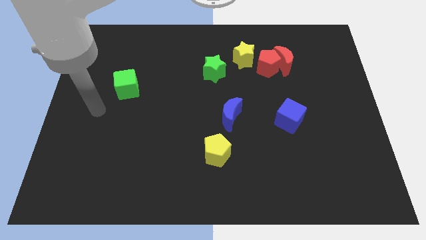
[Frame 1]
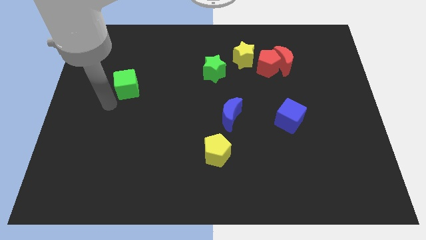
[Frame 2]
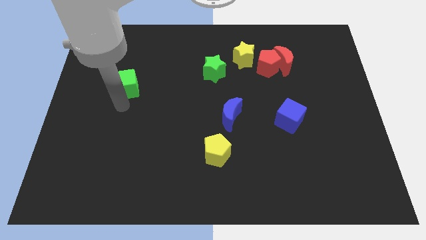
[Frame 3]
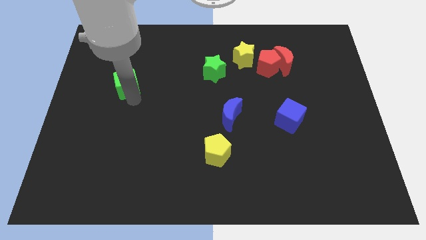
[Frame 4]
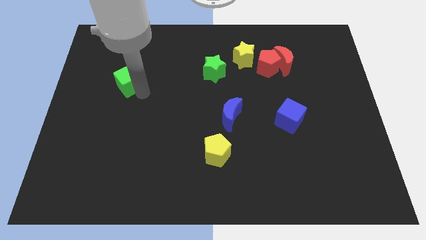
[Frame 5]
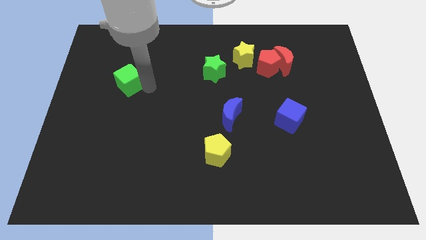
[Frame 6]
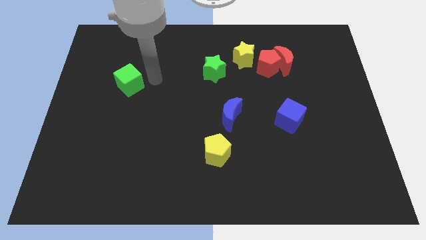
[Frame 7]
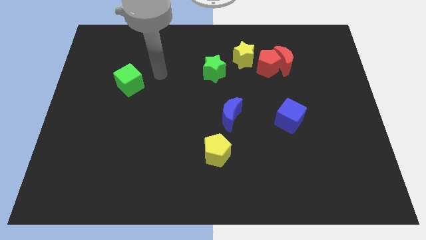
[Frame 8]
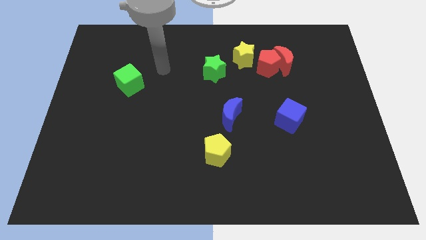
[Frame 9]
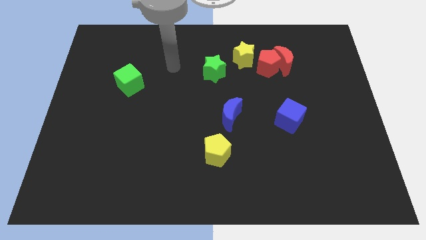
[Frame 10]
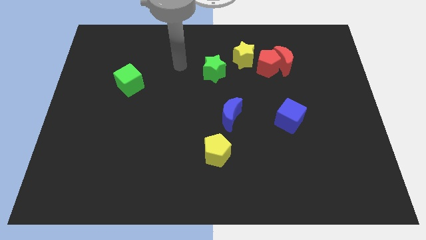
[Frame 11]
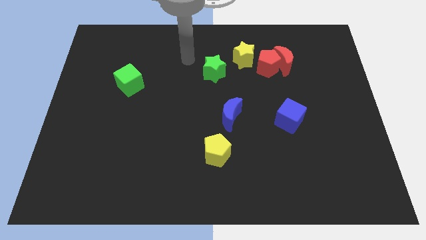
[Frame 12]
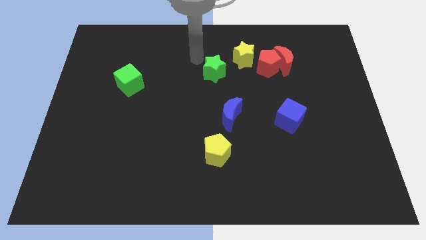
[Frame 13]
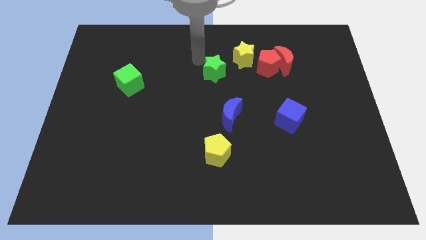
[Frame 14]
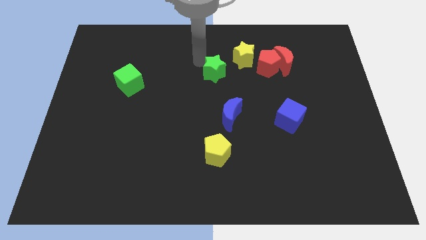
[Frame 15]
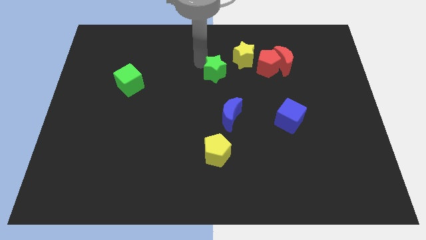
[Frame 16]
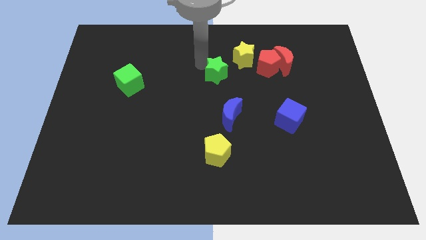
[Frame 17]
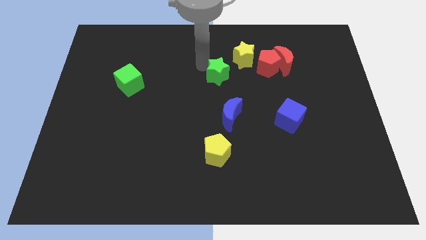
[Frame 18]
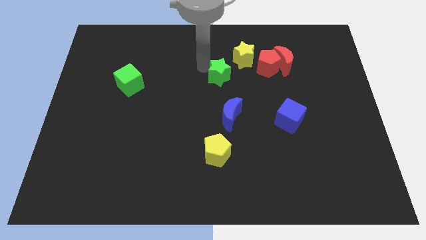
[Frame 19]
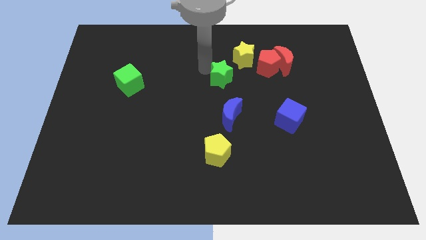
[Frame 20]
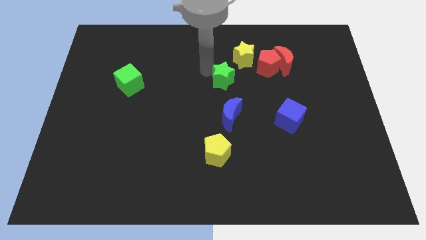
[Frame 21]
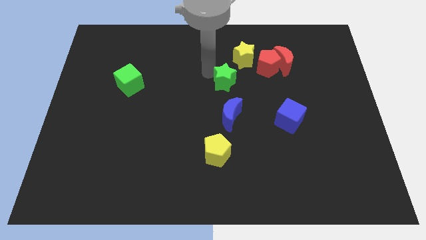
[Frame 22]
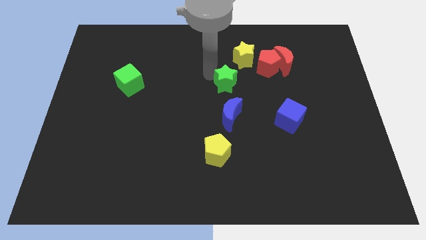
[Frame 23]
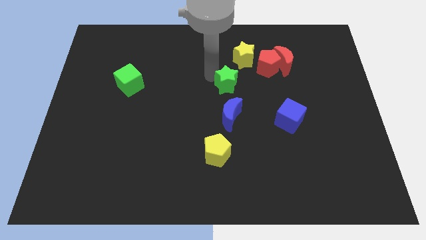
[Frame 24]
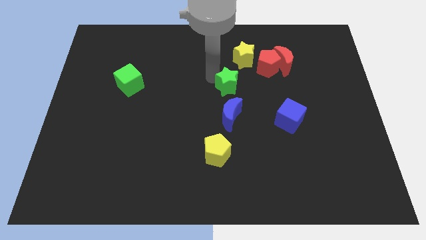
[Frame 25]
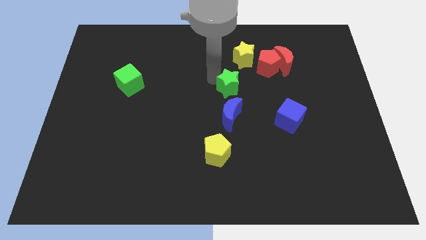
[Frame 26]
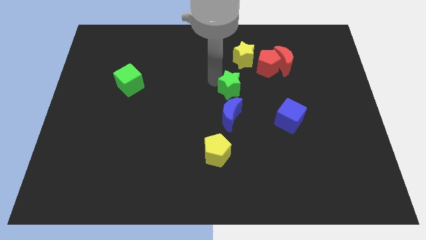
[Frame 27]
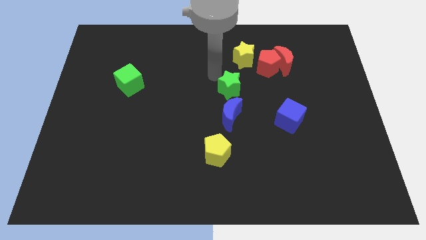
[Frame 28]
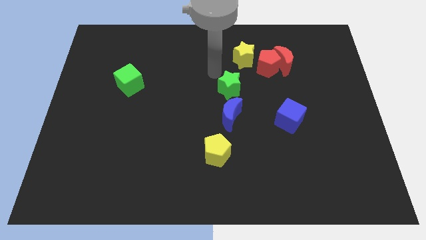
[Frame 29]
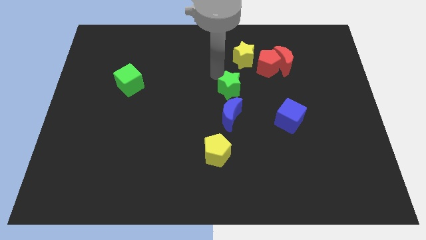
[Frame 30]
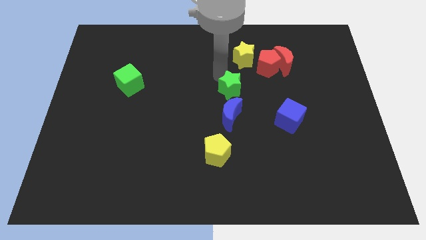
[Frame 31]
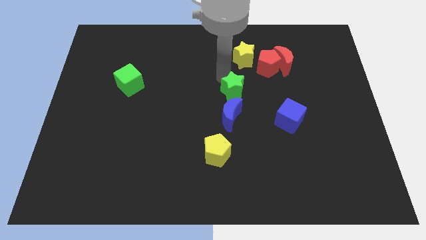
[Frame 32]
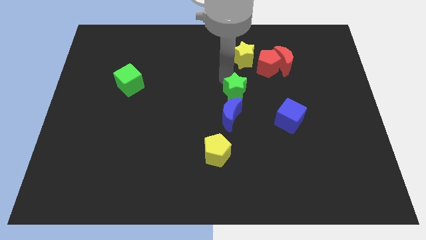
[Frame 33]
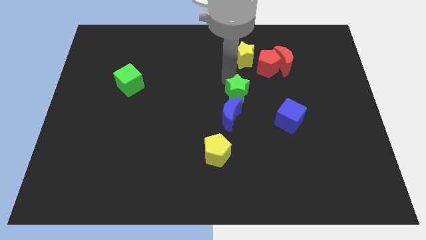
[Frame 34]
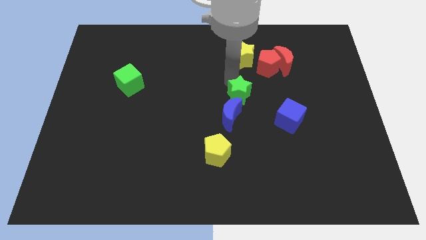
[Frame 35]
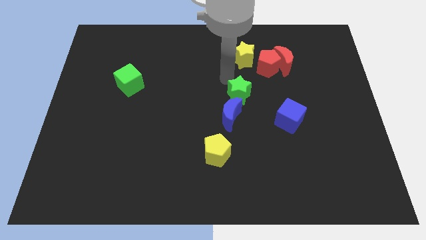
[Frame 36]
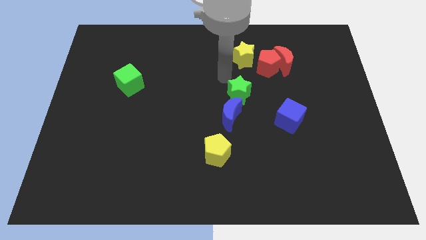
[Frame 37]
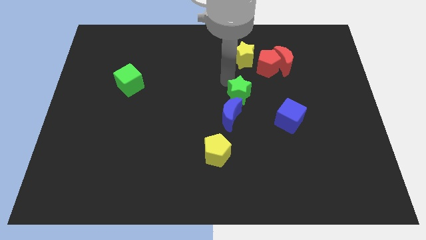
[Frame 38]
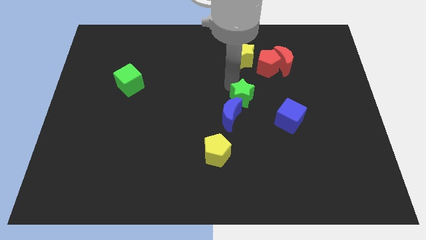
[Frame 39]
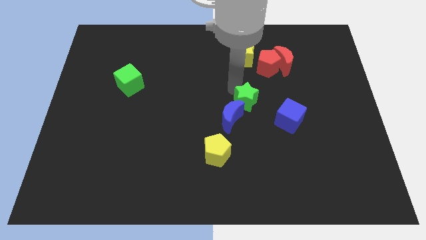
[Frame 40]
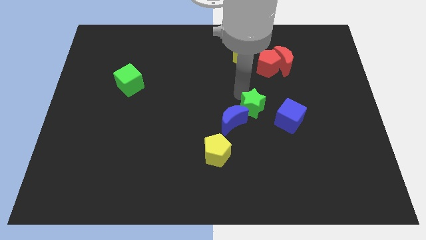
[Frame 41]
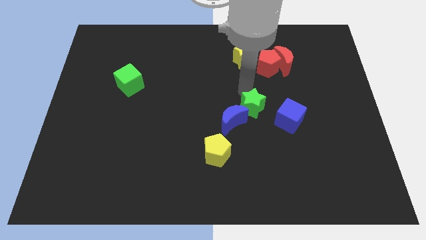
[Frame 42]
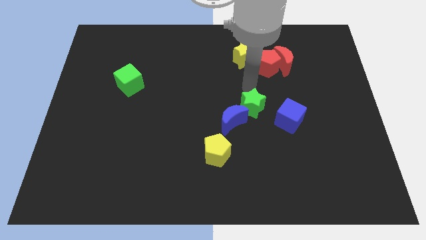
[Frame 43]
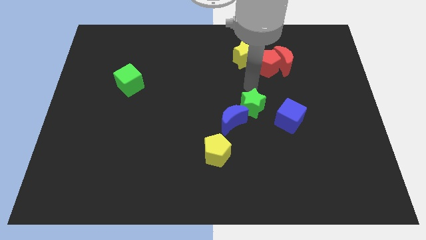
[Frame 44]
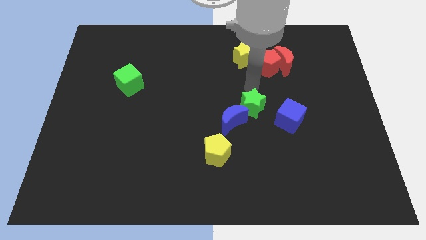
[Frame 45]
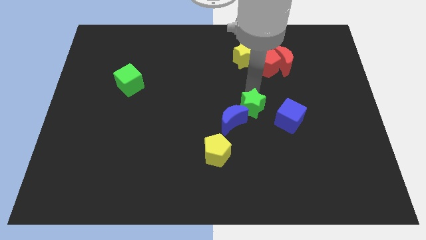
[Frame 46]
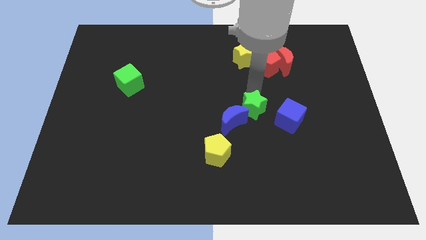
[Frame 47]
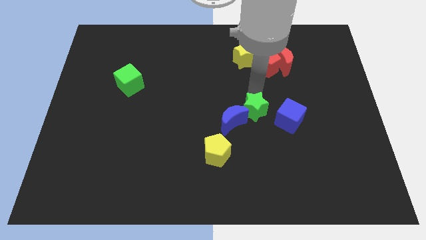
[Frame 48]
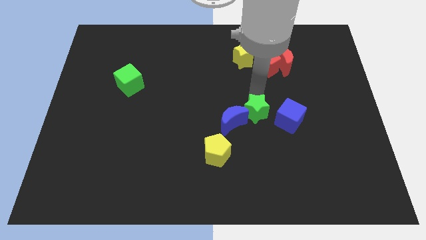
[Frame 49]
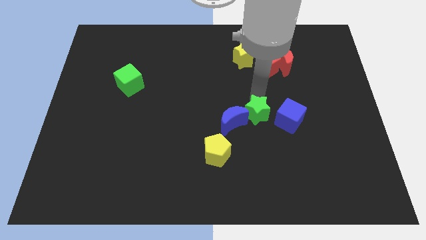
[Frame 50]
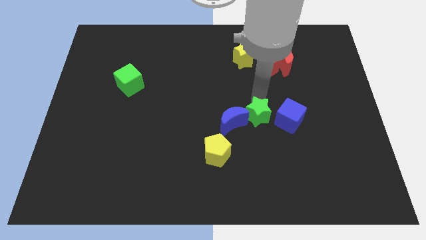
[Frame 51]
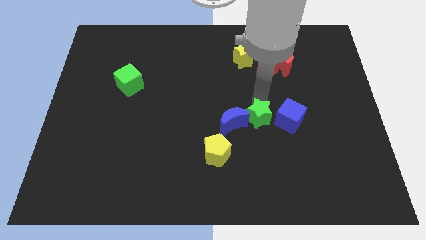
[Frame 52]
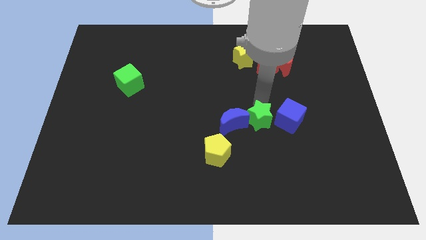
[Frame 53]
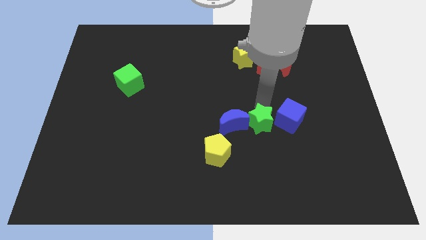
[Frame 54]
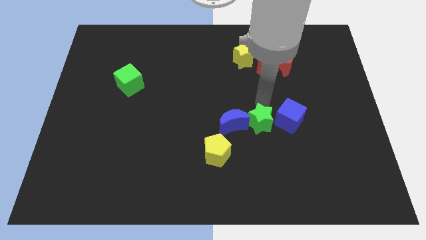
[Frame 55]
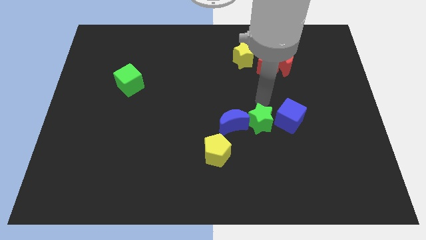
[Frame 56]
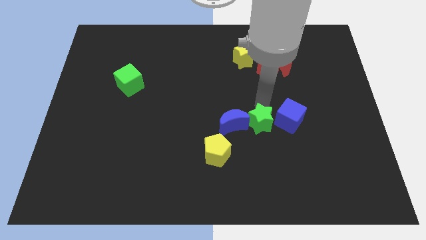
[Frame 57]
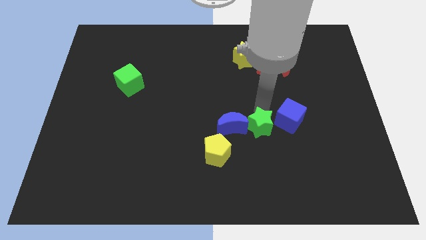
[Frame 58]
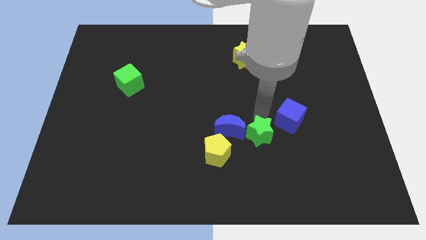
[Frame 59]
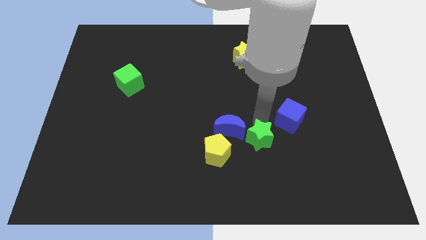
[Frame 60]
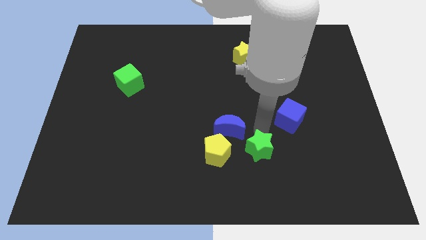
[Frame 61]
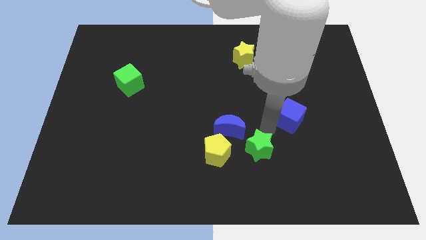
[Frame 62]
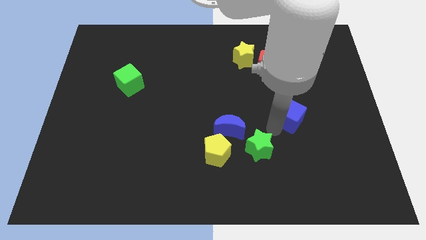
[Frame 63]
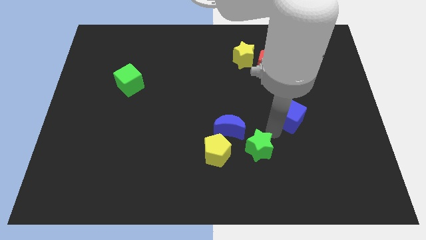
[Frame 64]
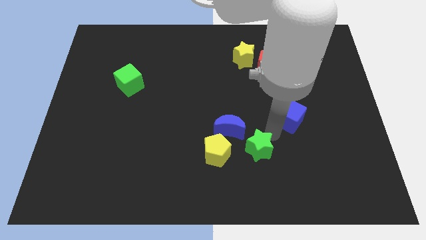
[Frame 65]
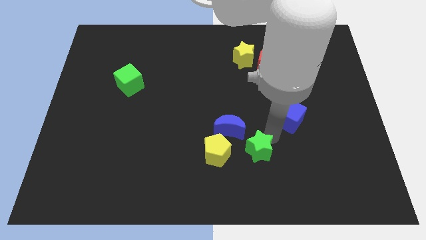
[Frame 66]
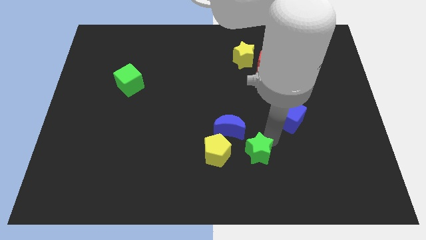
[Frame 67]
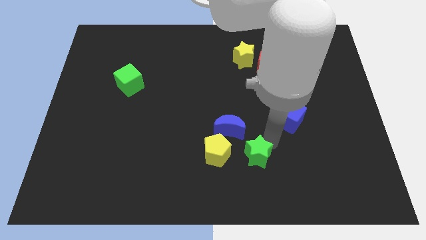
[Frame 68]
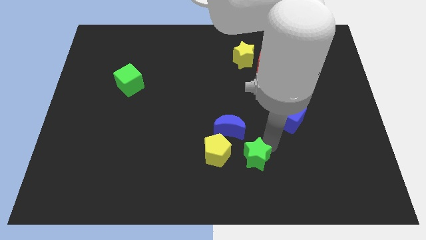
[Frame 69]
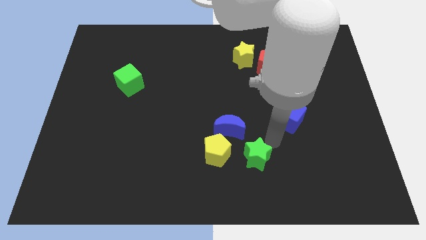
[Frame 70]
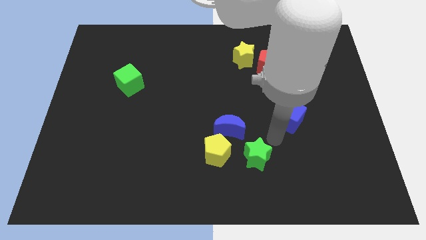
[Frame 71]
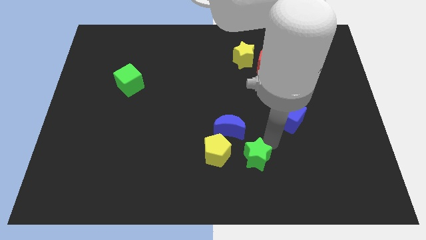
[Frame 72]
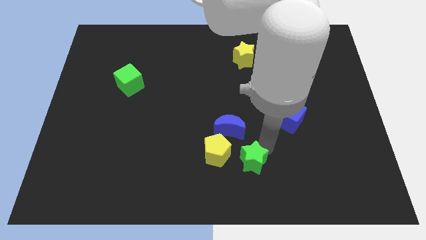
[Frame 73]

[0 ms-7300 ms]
move the green star to the bottom side of the blue moon

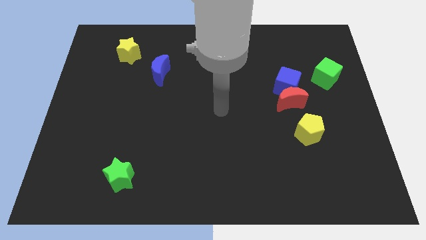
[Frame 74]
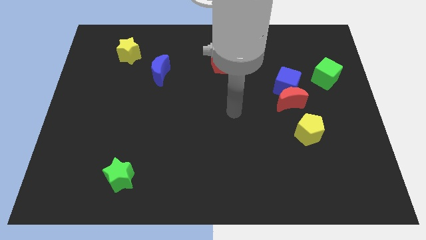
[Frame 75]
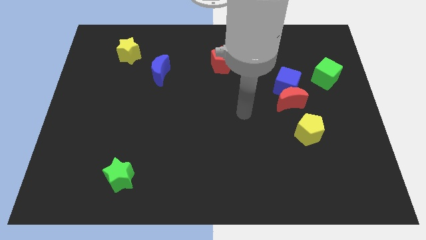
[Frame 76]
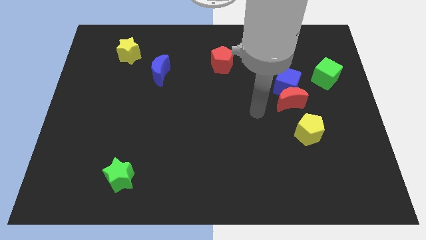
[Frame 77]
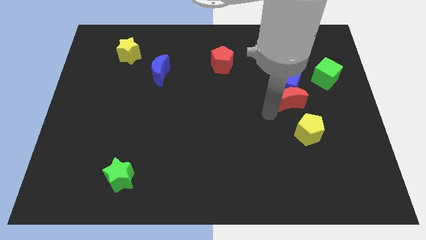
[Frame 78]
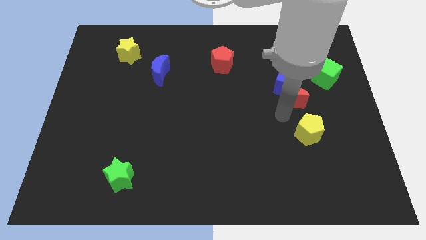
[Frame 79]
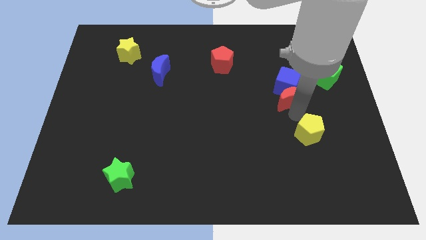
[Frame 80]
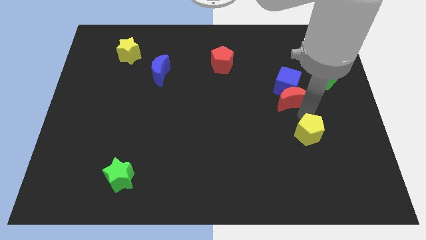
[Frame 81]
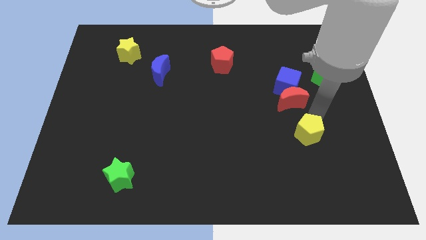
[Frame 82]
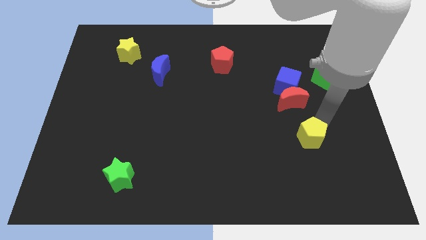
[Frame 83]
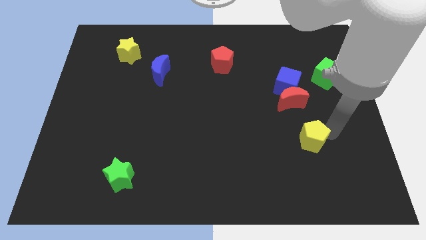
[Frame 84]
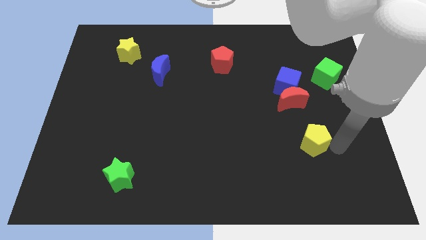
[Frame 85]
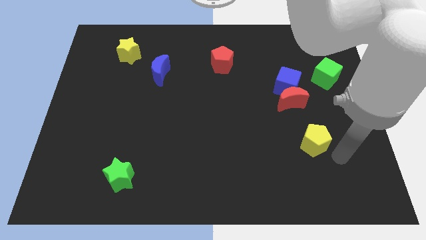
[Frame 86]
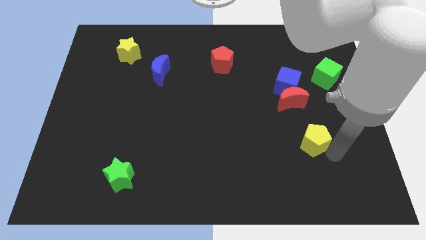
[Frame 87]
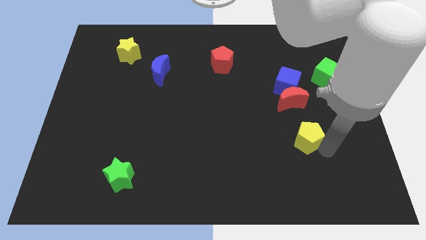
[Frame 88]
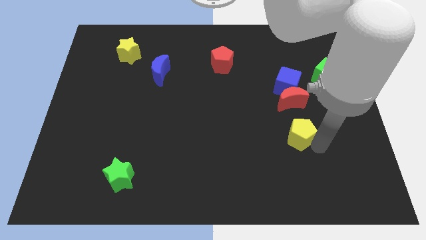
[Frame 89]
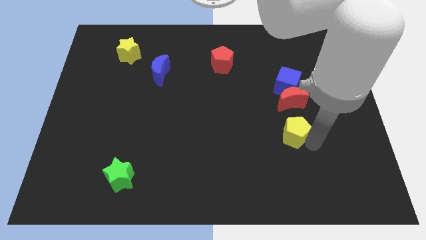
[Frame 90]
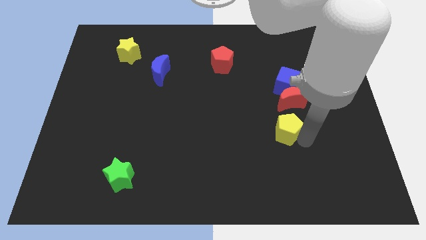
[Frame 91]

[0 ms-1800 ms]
put the yellow pentagon to the bottom left of the red moon
